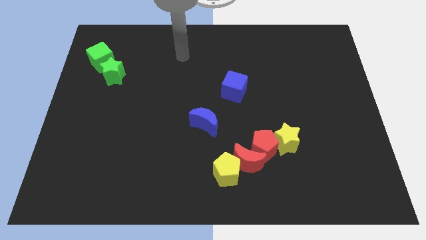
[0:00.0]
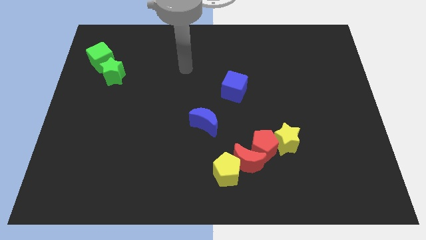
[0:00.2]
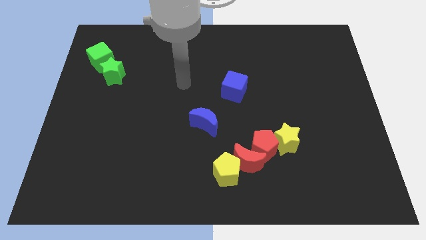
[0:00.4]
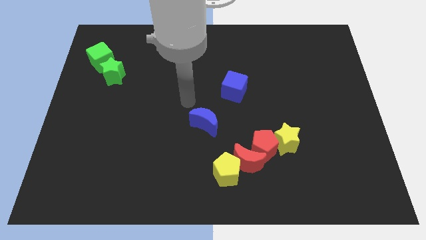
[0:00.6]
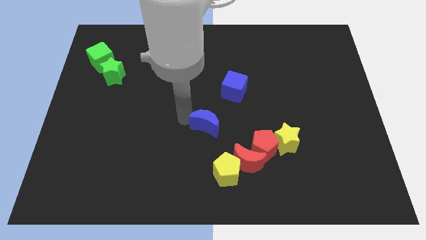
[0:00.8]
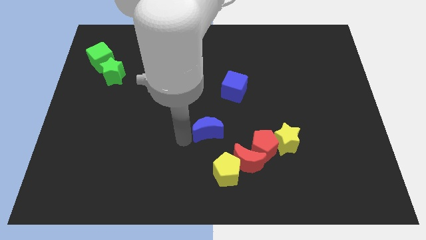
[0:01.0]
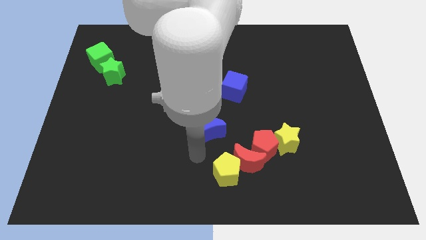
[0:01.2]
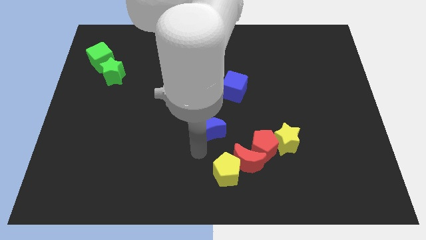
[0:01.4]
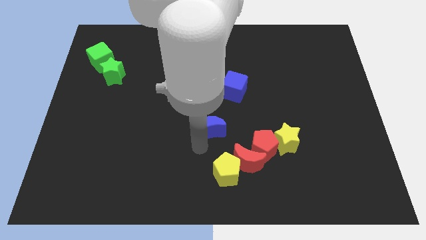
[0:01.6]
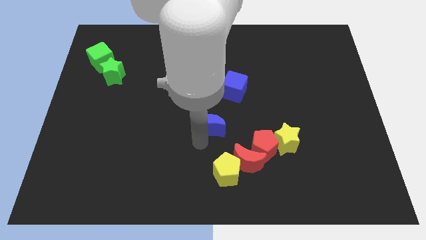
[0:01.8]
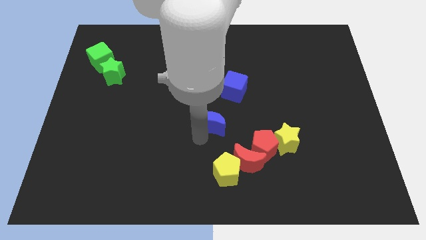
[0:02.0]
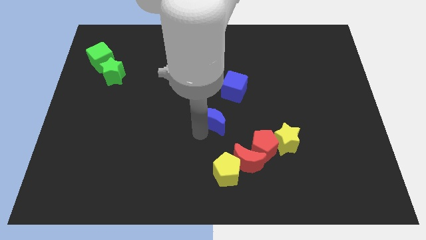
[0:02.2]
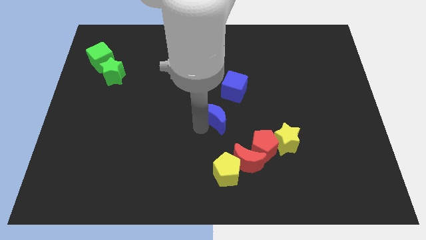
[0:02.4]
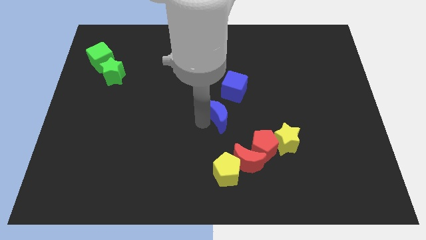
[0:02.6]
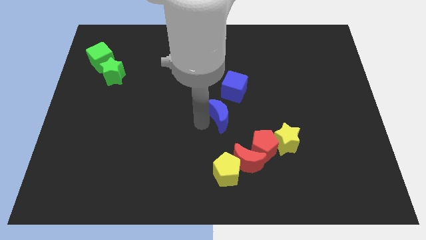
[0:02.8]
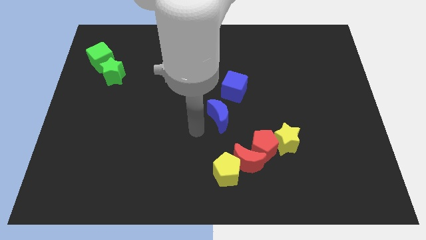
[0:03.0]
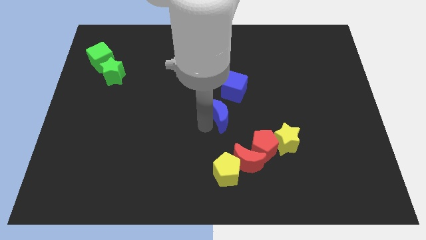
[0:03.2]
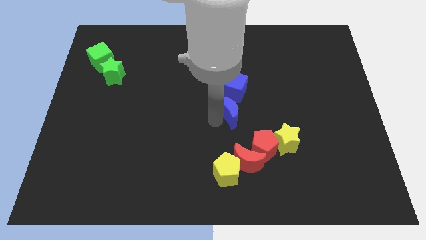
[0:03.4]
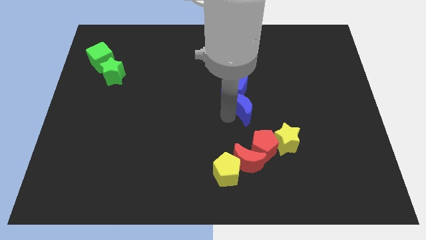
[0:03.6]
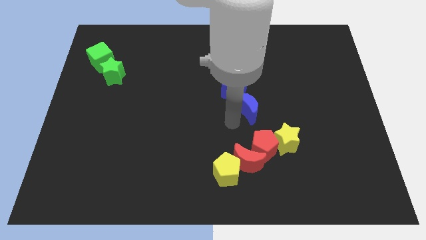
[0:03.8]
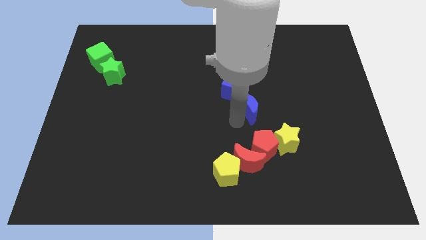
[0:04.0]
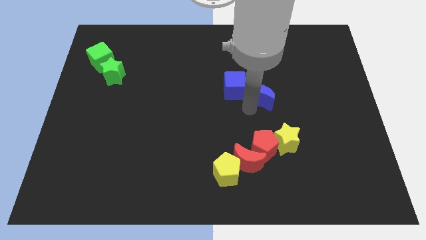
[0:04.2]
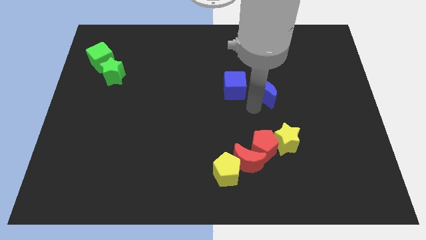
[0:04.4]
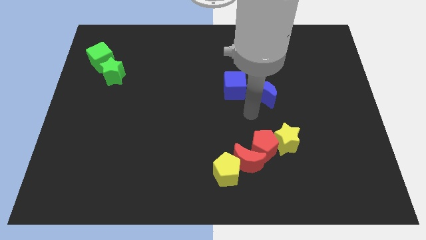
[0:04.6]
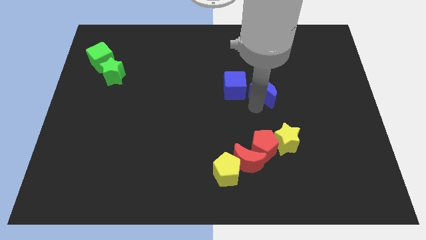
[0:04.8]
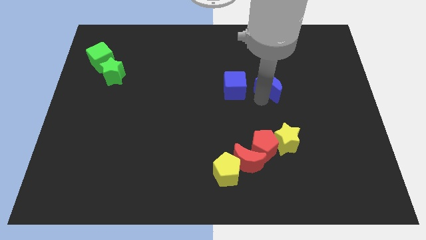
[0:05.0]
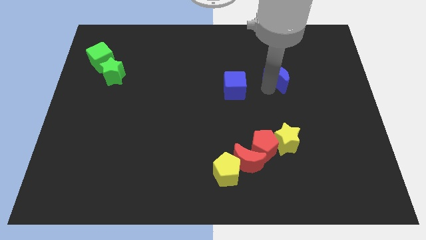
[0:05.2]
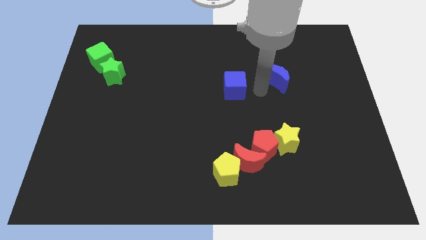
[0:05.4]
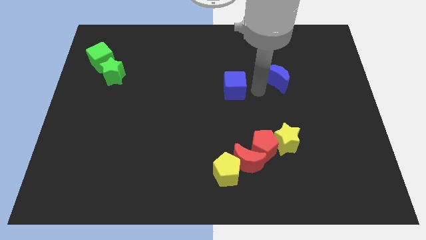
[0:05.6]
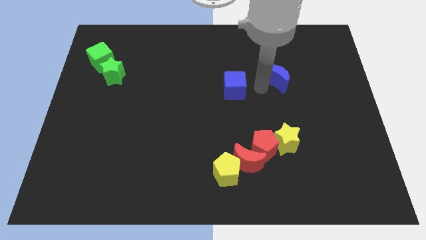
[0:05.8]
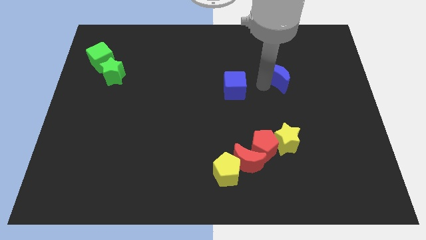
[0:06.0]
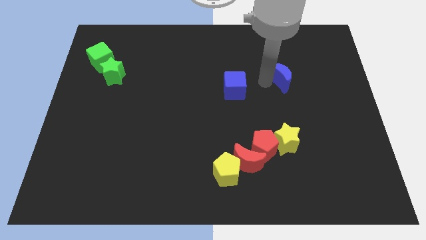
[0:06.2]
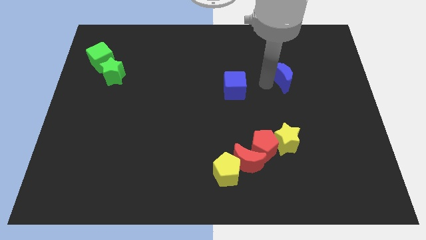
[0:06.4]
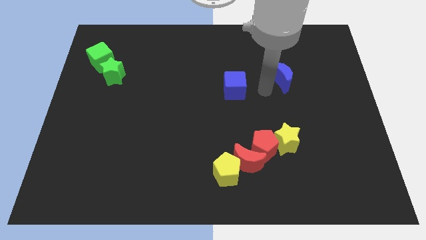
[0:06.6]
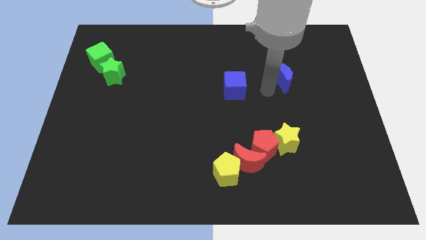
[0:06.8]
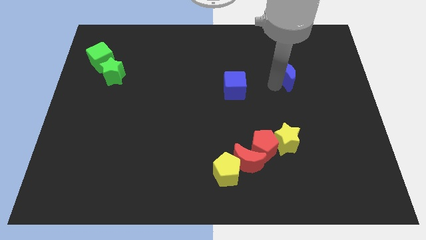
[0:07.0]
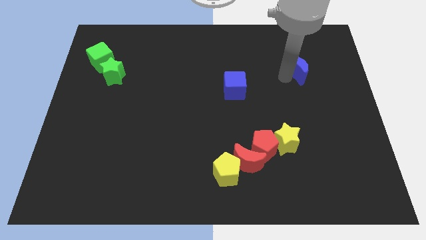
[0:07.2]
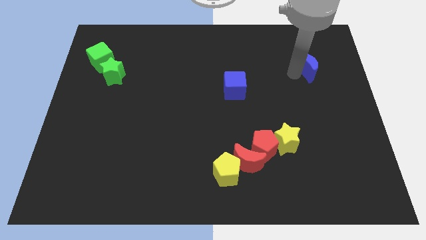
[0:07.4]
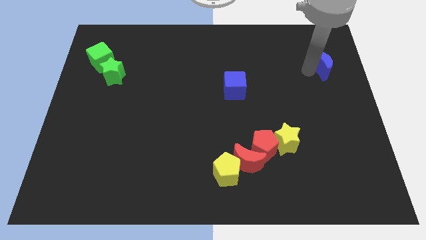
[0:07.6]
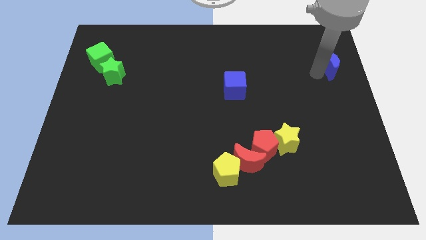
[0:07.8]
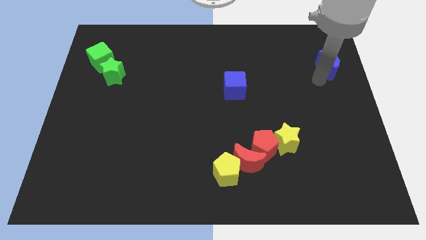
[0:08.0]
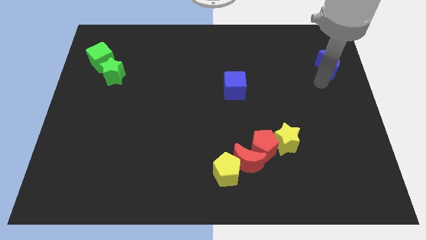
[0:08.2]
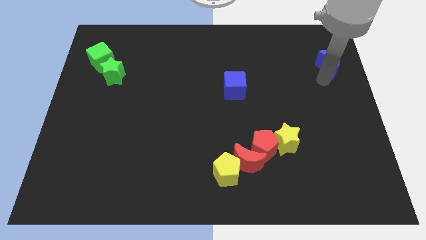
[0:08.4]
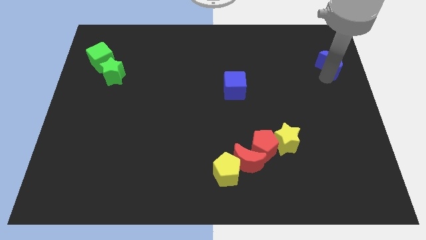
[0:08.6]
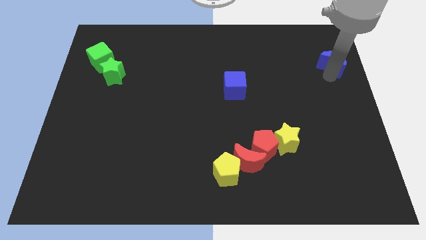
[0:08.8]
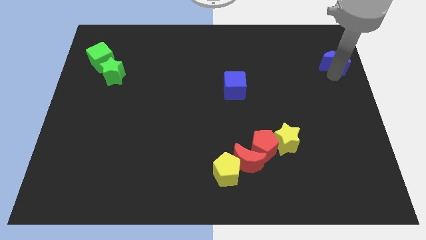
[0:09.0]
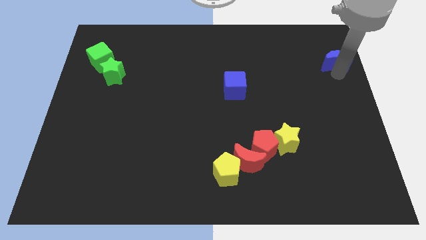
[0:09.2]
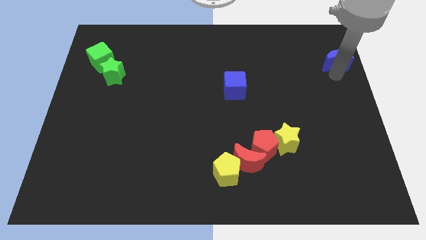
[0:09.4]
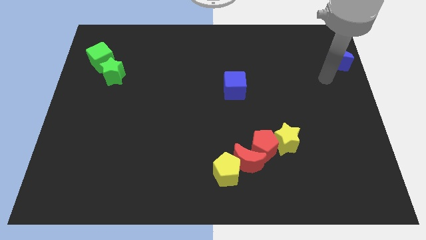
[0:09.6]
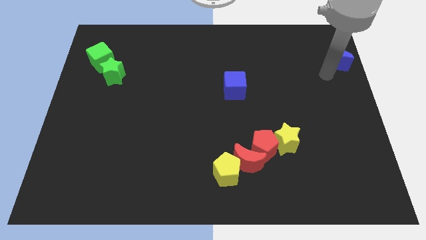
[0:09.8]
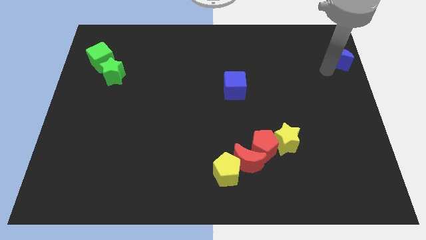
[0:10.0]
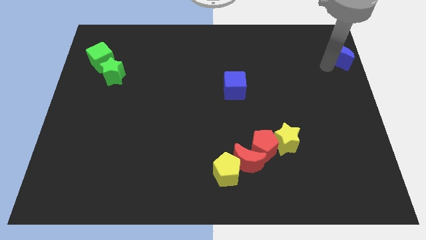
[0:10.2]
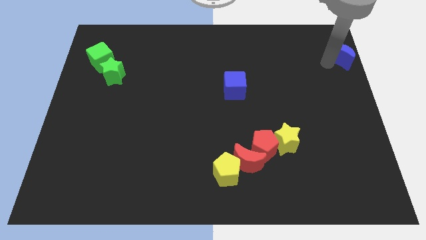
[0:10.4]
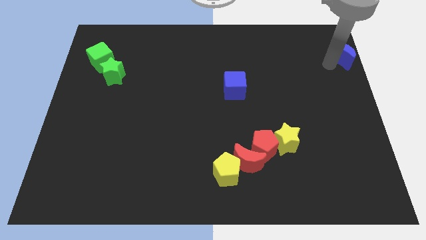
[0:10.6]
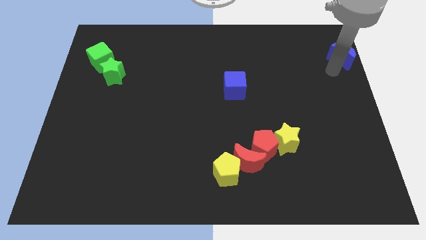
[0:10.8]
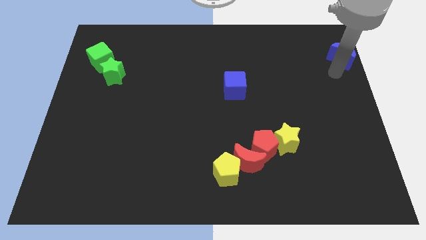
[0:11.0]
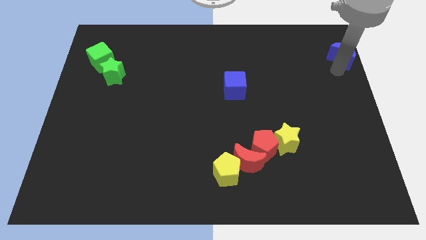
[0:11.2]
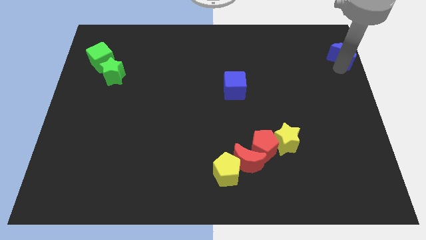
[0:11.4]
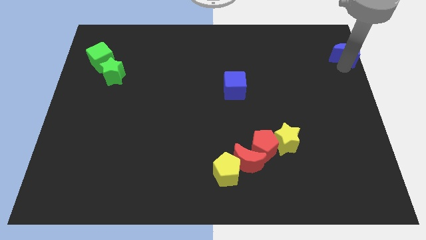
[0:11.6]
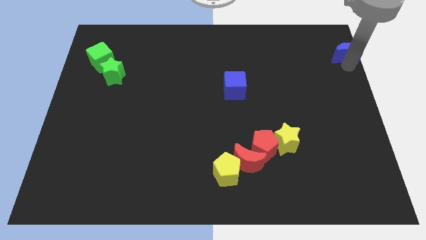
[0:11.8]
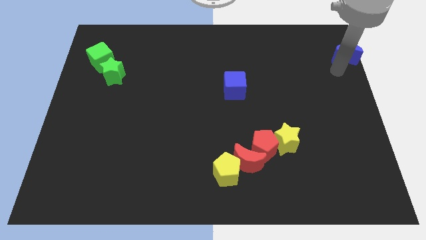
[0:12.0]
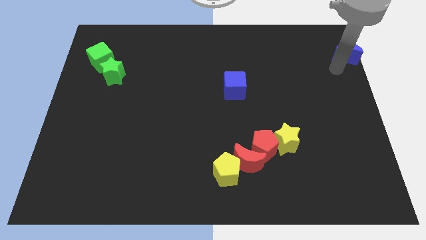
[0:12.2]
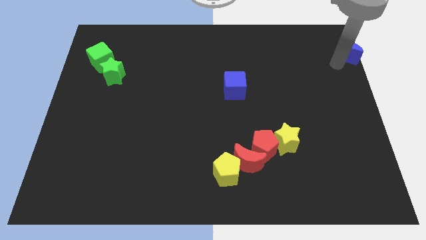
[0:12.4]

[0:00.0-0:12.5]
slide the blue moon to the top right corner

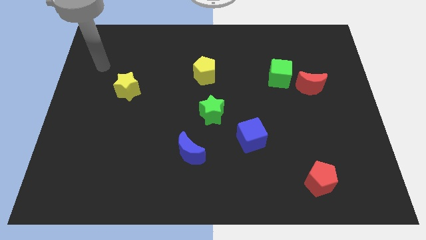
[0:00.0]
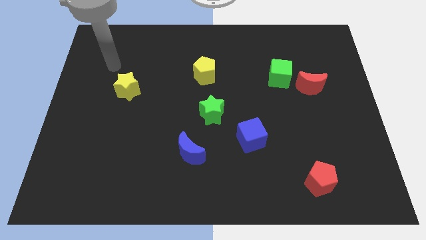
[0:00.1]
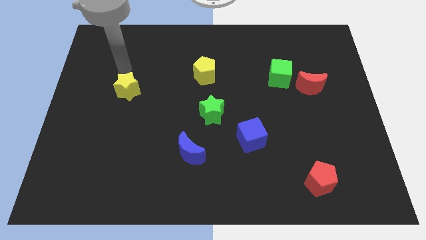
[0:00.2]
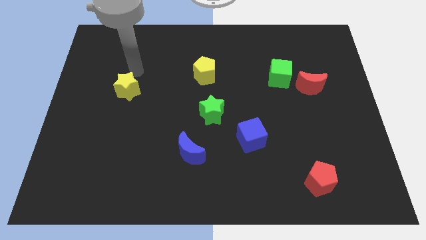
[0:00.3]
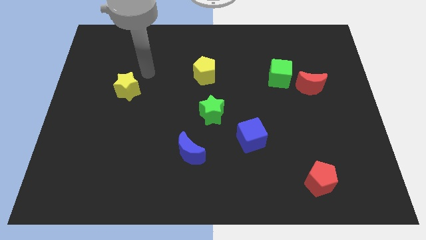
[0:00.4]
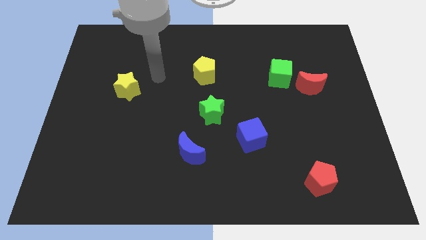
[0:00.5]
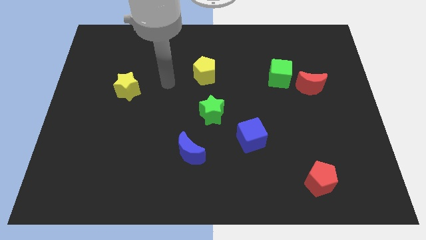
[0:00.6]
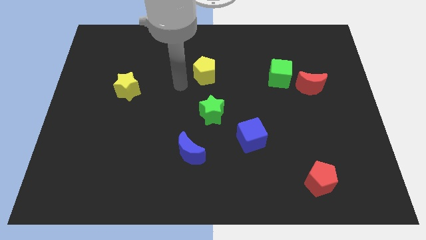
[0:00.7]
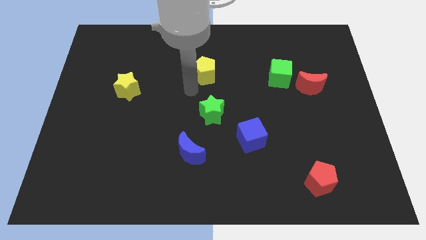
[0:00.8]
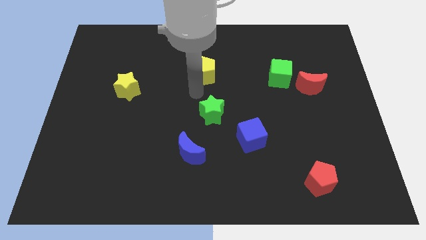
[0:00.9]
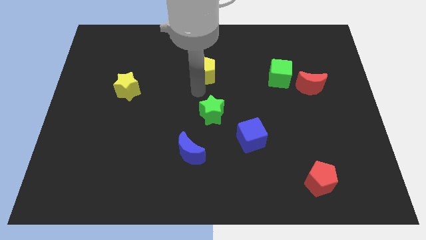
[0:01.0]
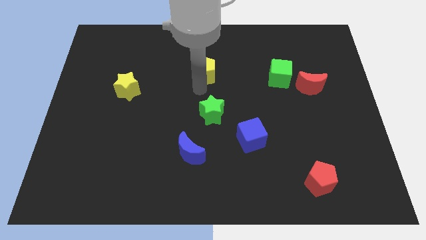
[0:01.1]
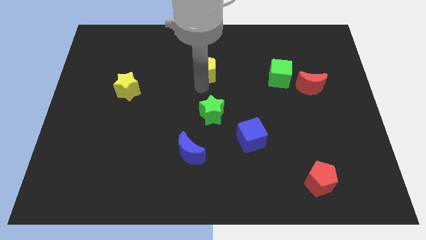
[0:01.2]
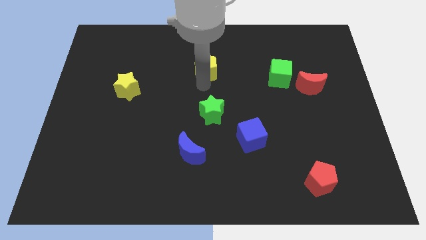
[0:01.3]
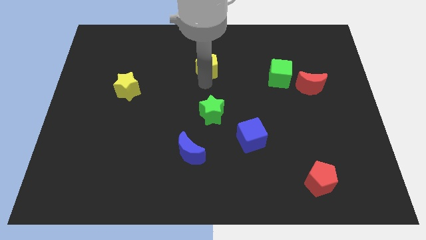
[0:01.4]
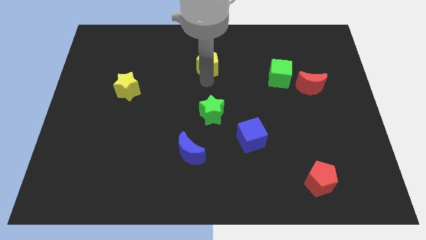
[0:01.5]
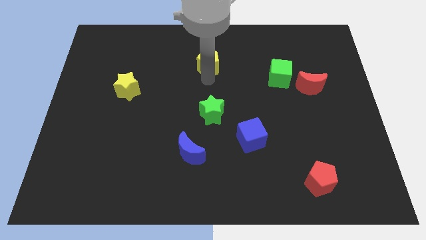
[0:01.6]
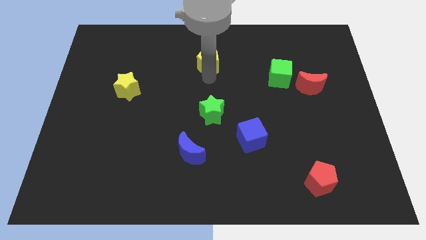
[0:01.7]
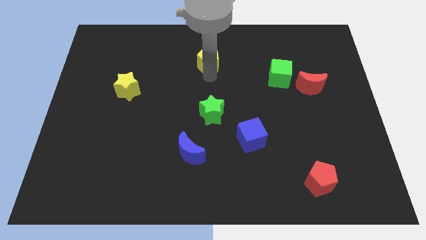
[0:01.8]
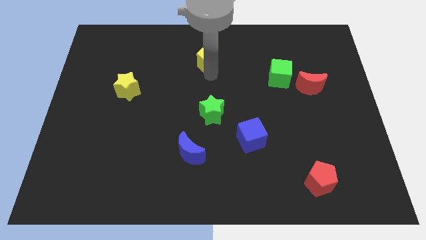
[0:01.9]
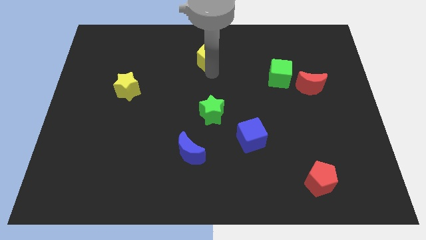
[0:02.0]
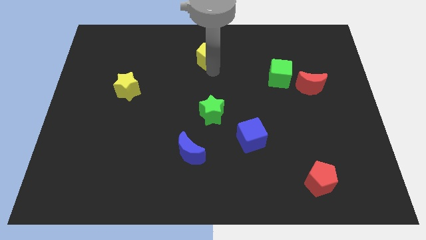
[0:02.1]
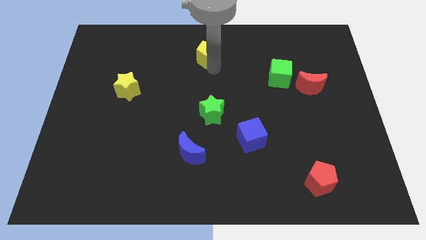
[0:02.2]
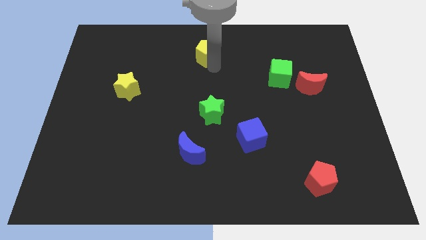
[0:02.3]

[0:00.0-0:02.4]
put the yellow pentagon to the top
